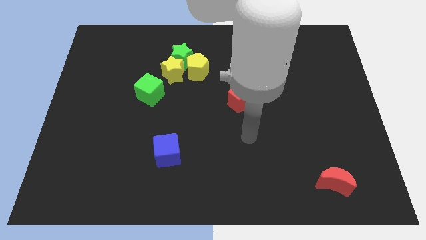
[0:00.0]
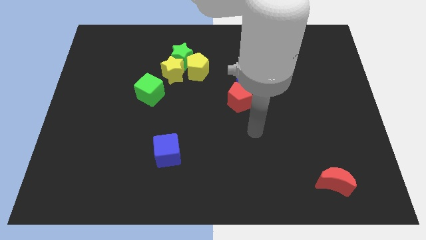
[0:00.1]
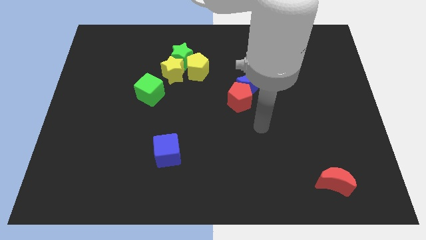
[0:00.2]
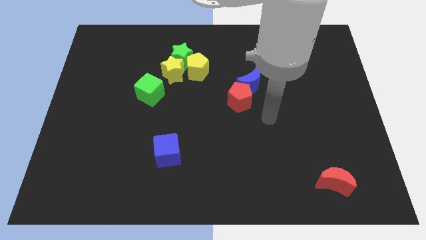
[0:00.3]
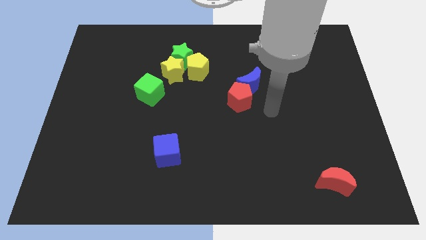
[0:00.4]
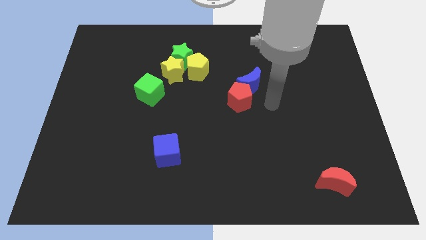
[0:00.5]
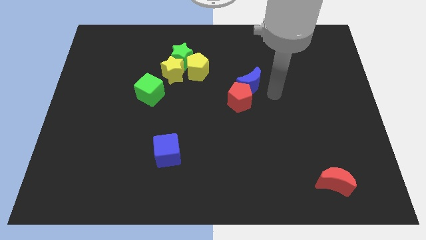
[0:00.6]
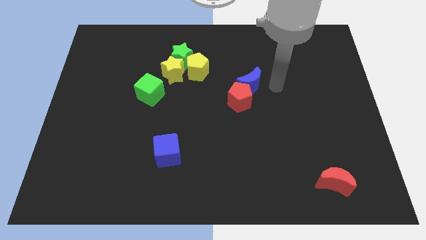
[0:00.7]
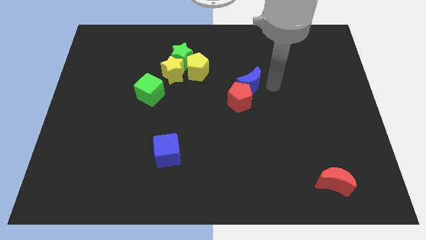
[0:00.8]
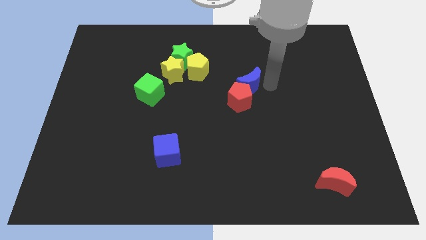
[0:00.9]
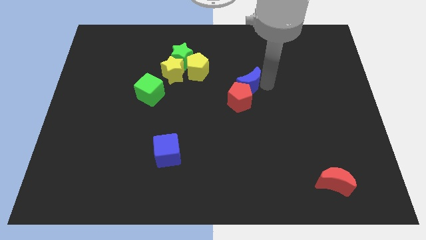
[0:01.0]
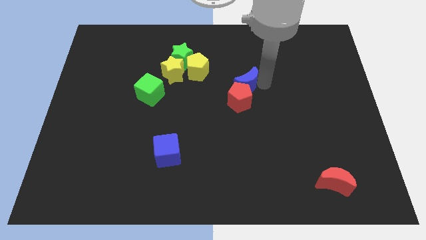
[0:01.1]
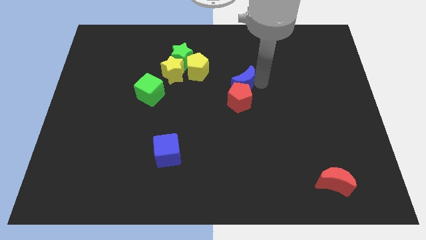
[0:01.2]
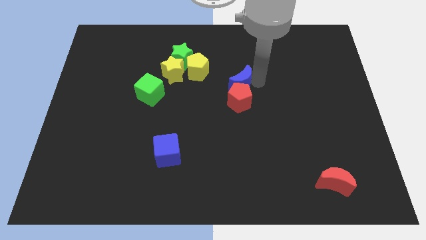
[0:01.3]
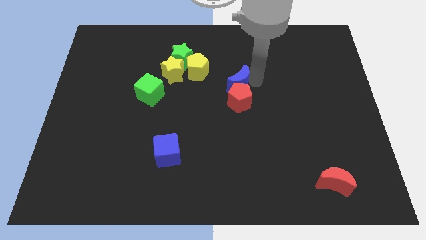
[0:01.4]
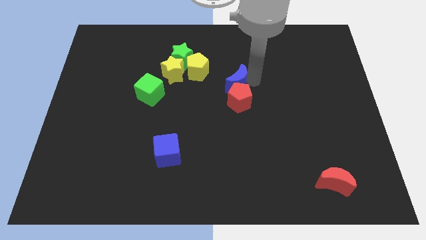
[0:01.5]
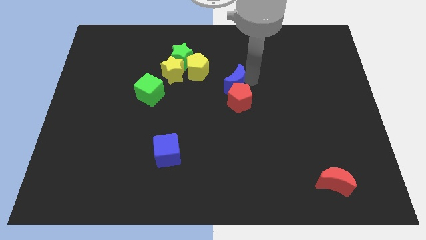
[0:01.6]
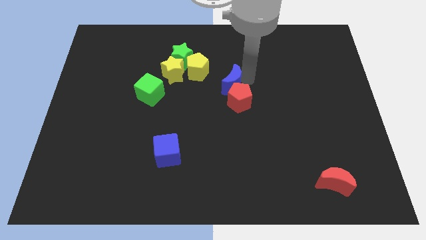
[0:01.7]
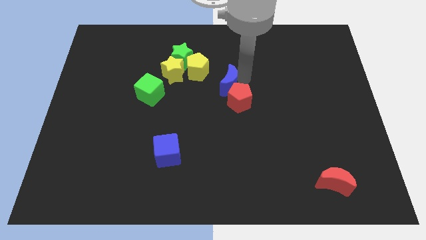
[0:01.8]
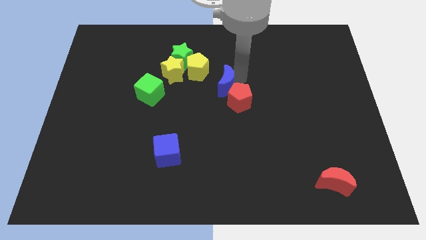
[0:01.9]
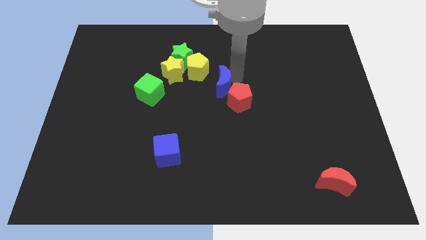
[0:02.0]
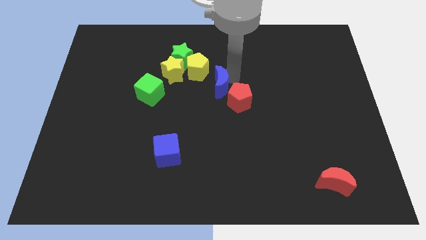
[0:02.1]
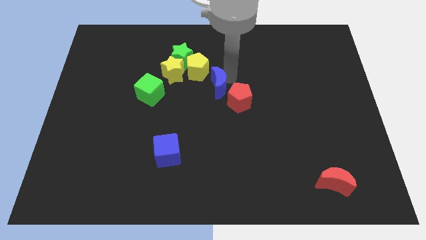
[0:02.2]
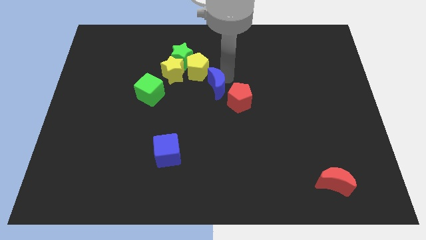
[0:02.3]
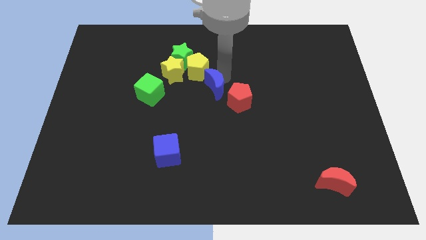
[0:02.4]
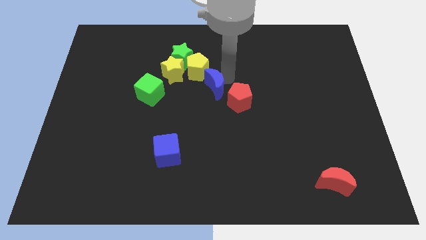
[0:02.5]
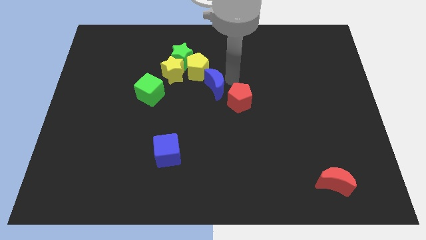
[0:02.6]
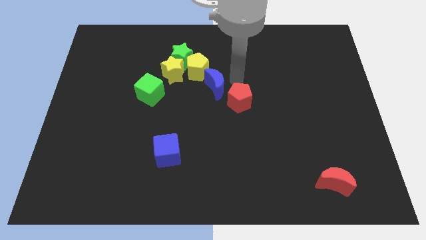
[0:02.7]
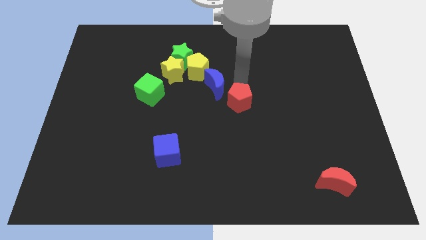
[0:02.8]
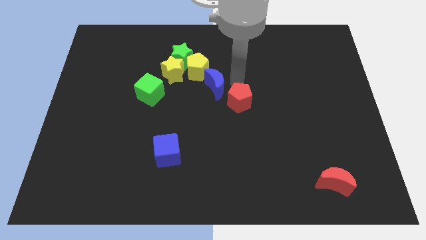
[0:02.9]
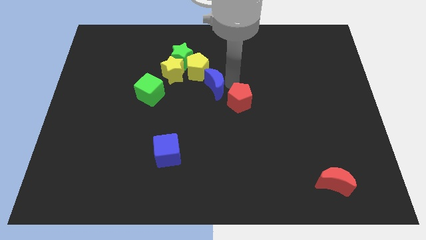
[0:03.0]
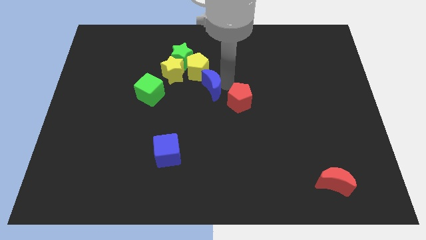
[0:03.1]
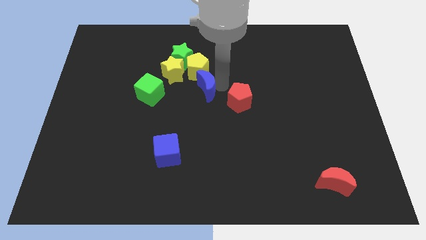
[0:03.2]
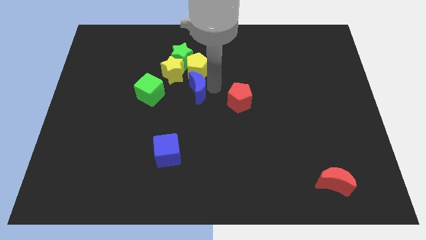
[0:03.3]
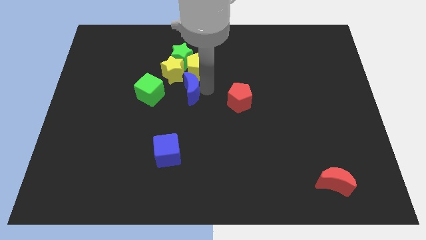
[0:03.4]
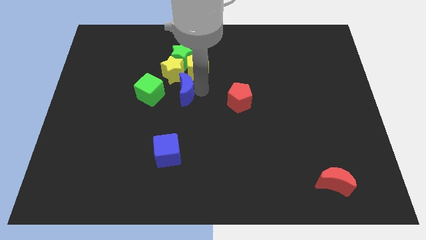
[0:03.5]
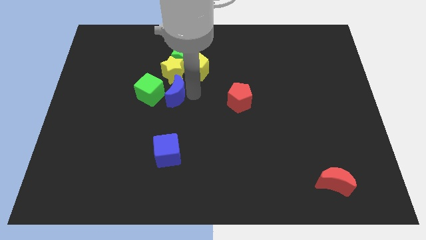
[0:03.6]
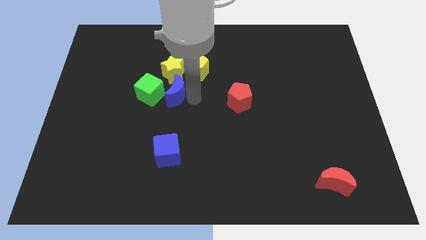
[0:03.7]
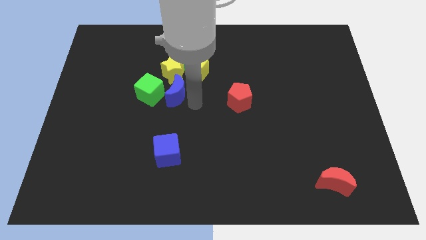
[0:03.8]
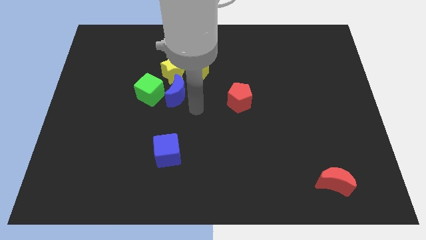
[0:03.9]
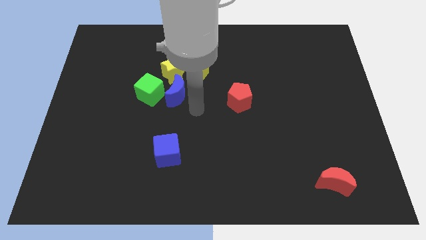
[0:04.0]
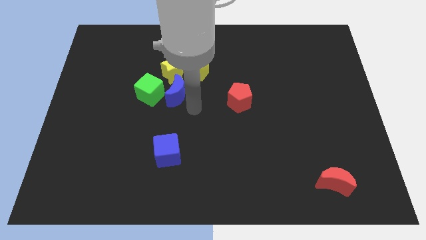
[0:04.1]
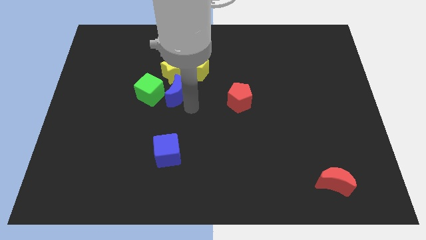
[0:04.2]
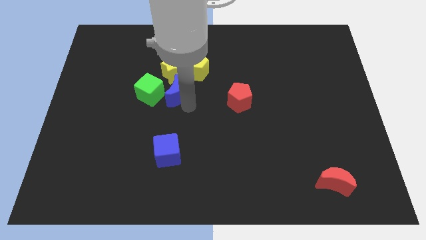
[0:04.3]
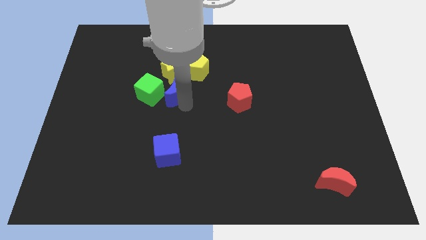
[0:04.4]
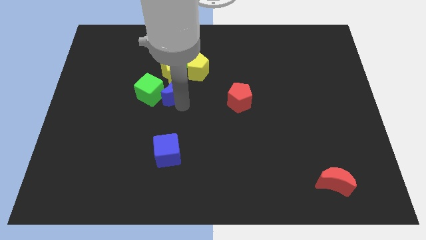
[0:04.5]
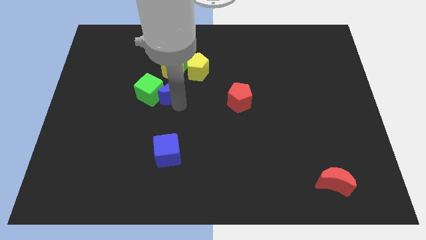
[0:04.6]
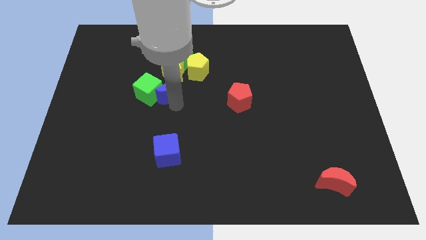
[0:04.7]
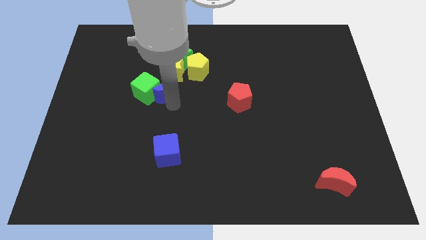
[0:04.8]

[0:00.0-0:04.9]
slide the blue moon to the left

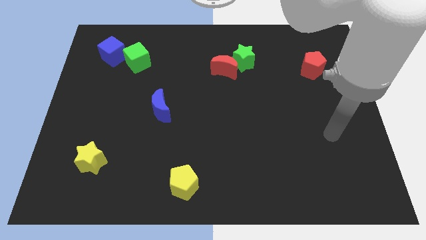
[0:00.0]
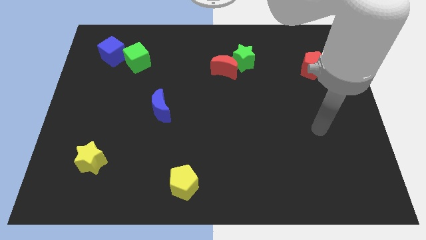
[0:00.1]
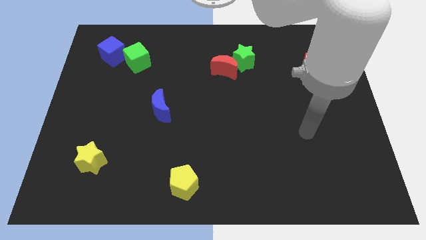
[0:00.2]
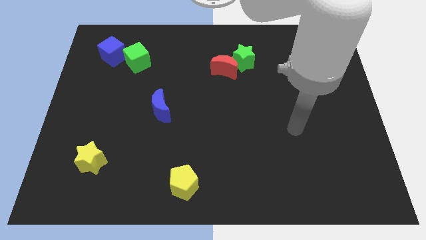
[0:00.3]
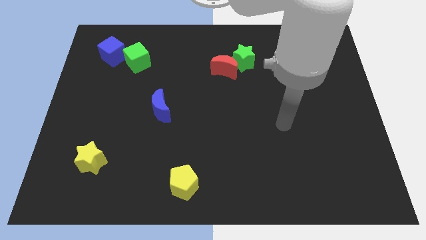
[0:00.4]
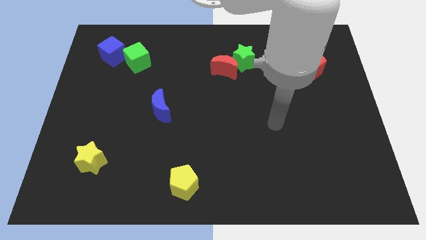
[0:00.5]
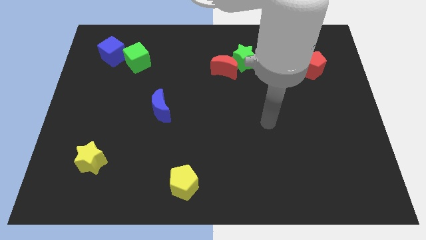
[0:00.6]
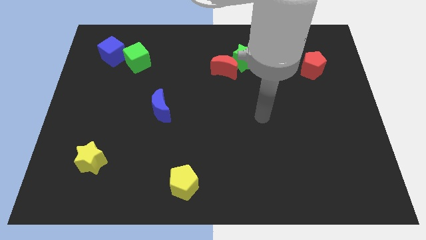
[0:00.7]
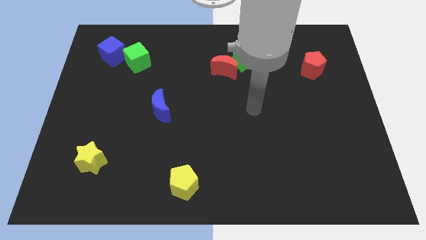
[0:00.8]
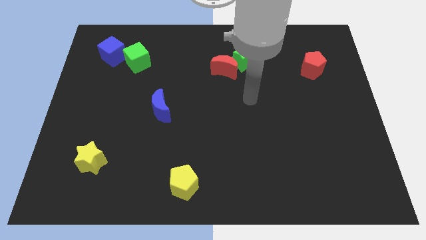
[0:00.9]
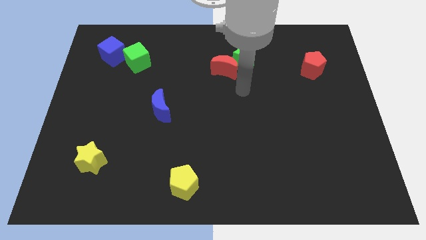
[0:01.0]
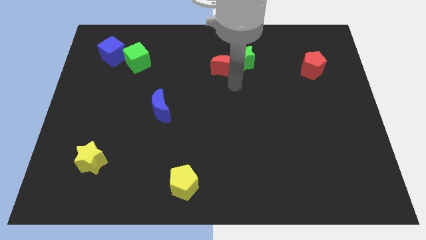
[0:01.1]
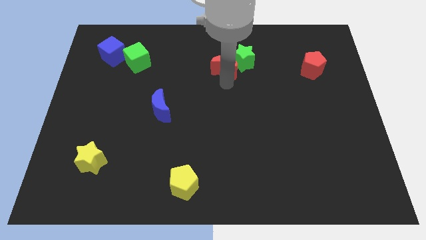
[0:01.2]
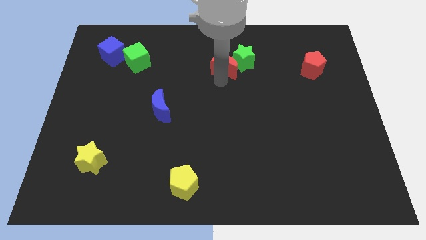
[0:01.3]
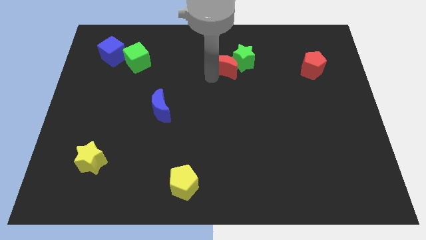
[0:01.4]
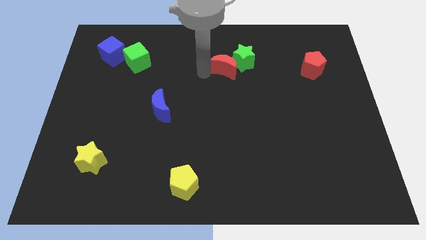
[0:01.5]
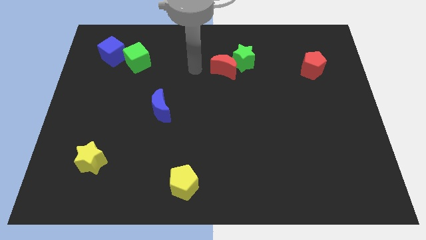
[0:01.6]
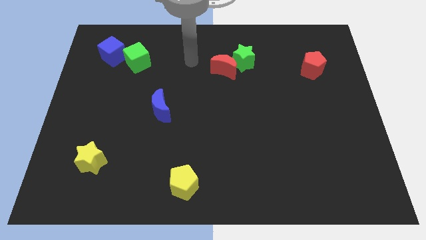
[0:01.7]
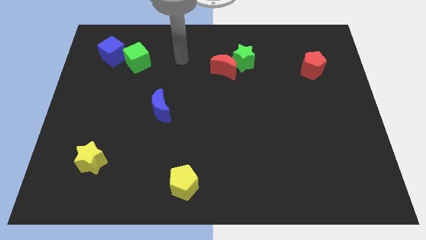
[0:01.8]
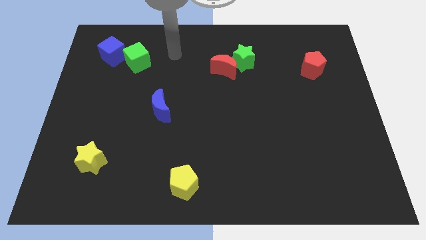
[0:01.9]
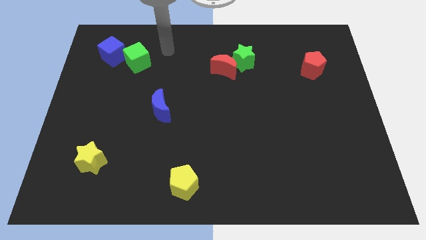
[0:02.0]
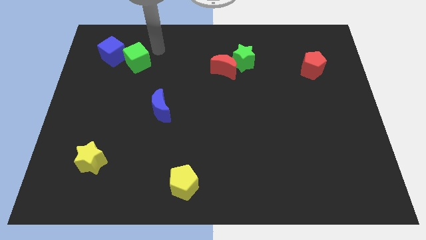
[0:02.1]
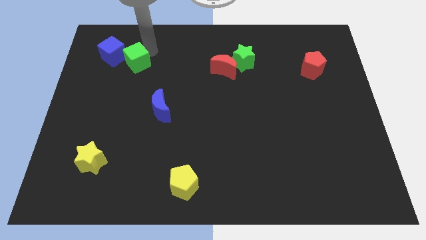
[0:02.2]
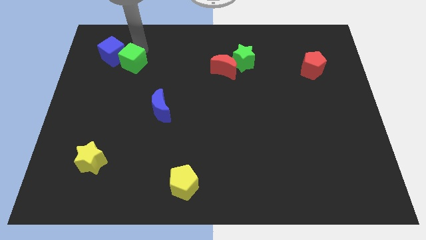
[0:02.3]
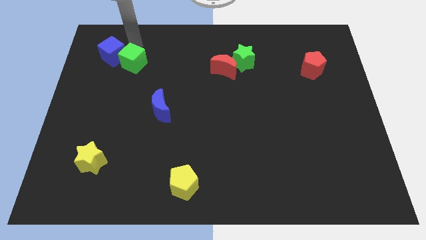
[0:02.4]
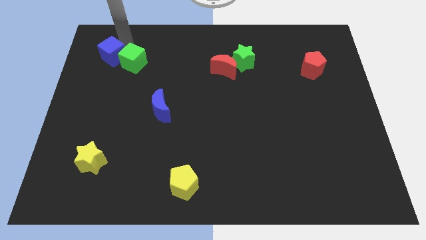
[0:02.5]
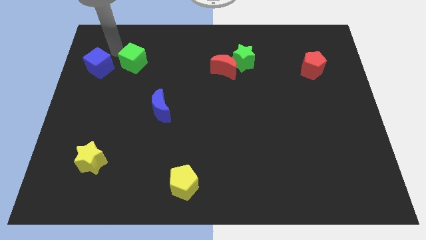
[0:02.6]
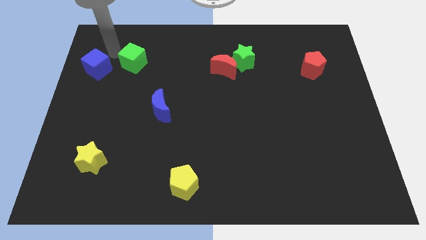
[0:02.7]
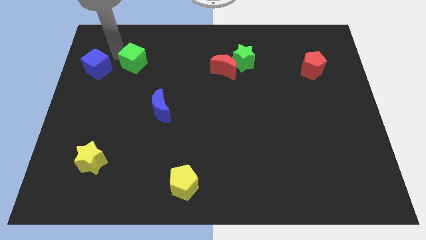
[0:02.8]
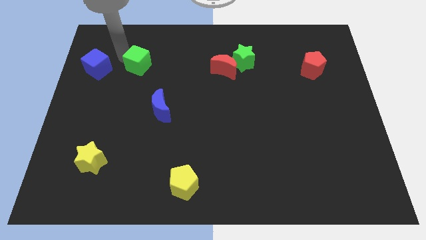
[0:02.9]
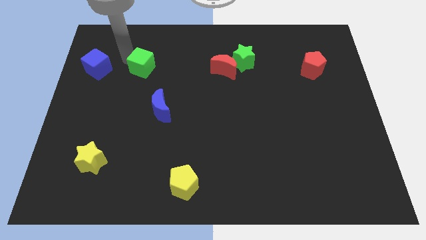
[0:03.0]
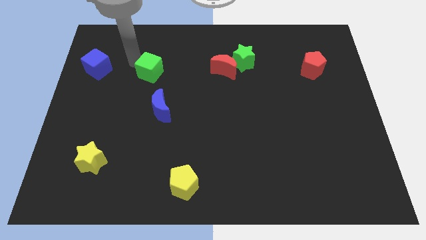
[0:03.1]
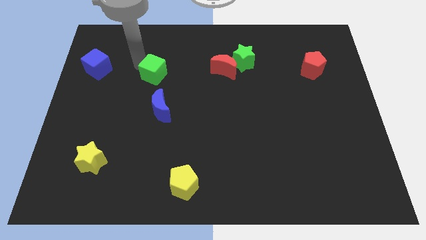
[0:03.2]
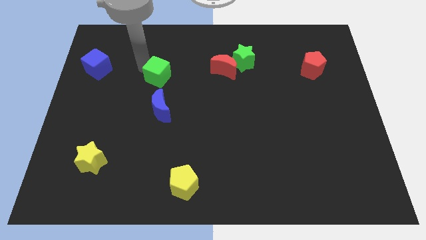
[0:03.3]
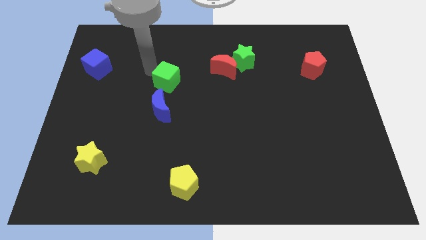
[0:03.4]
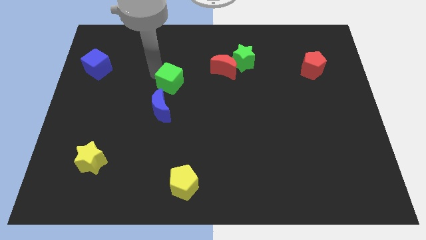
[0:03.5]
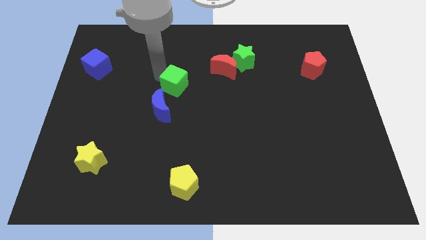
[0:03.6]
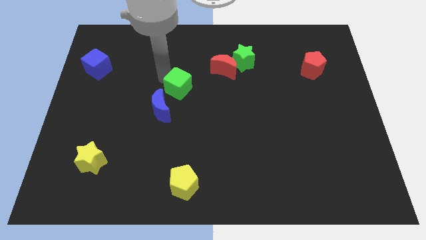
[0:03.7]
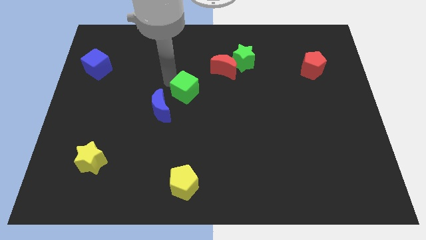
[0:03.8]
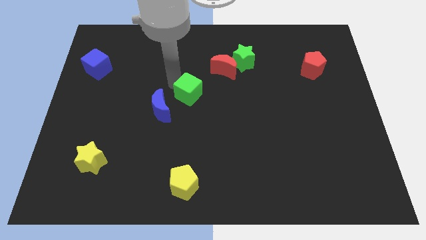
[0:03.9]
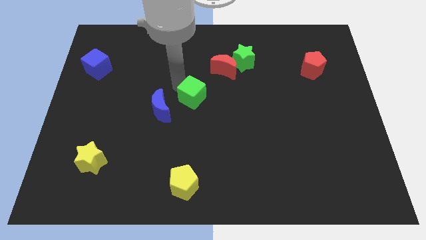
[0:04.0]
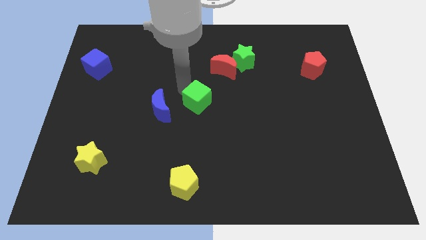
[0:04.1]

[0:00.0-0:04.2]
move the green cube diagonally downwards and to the right
